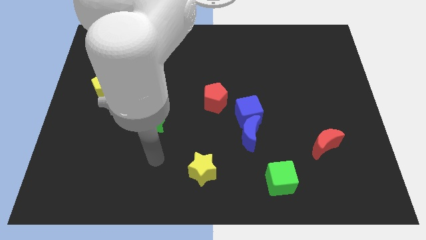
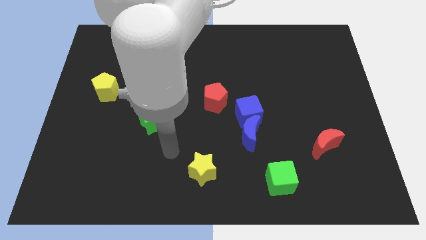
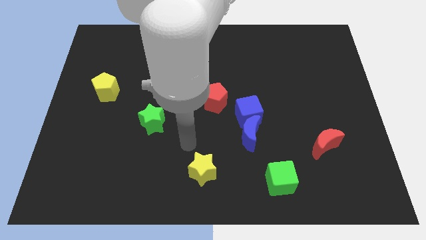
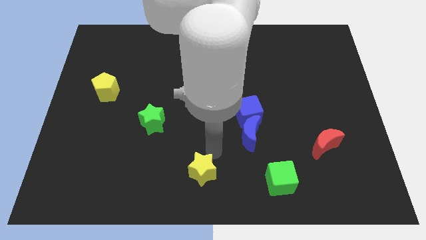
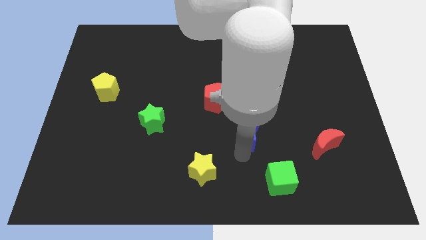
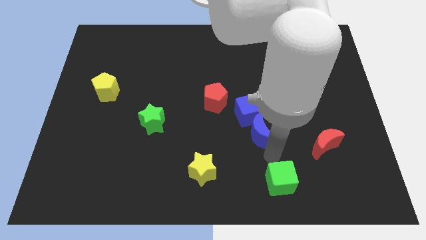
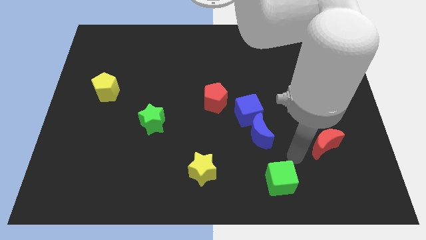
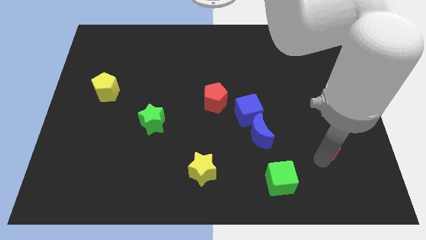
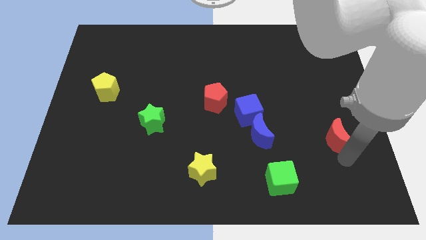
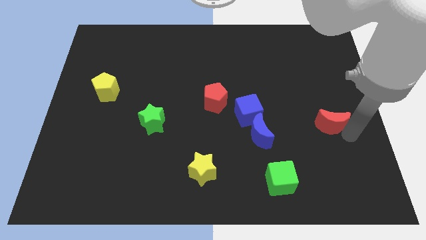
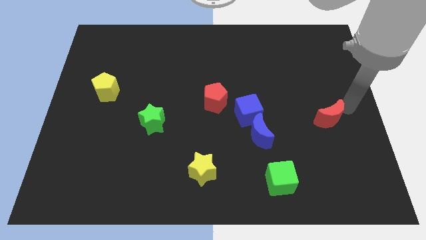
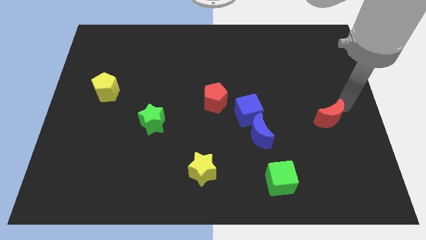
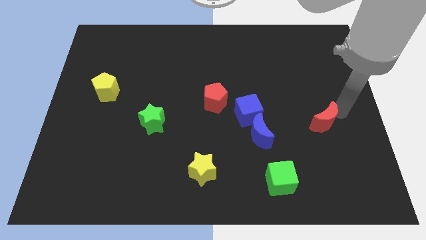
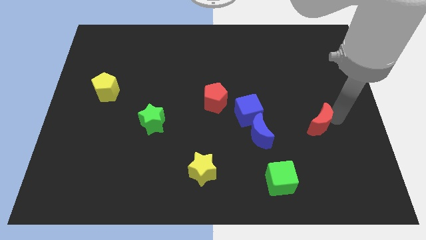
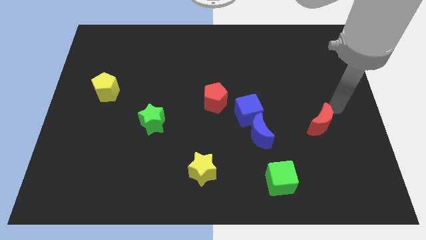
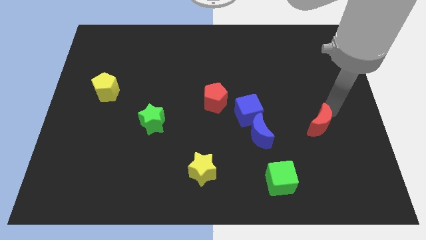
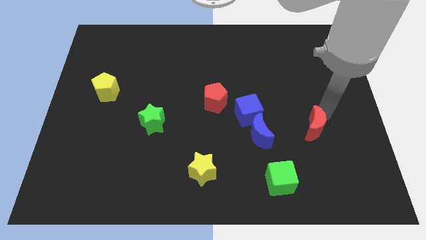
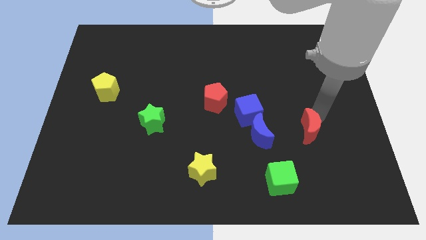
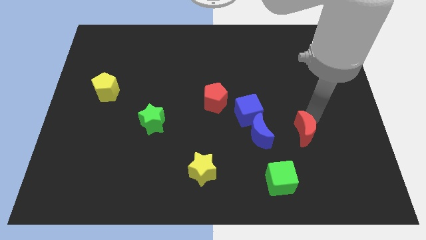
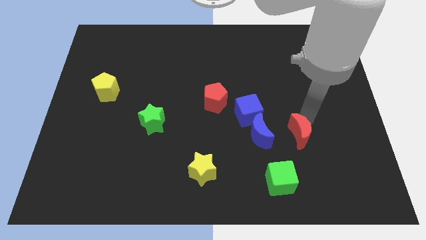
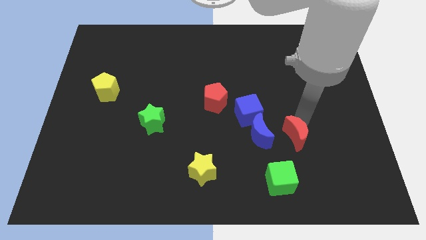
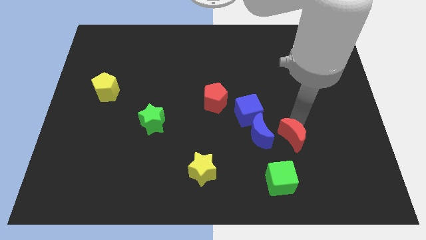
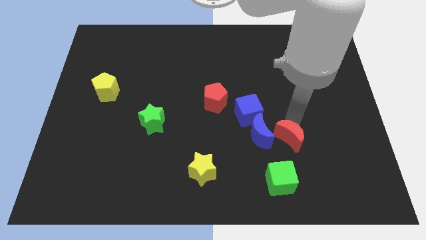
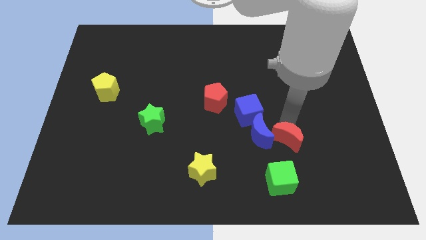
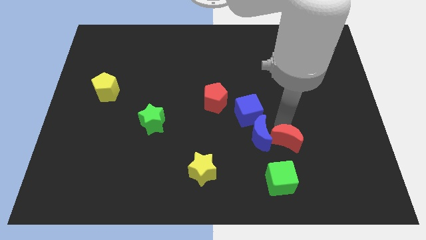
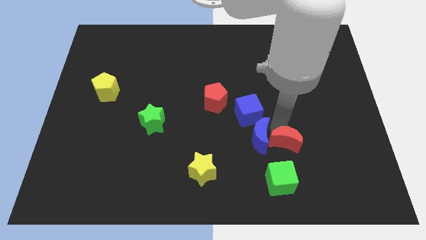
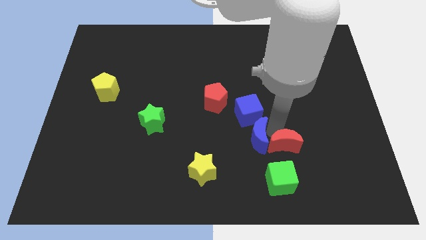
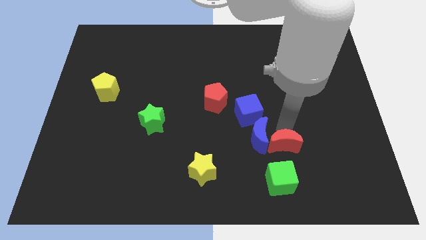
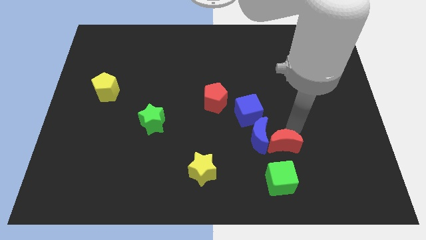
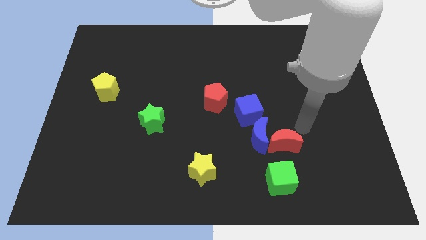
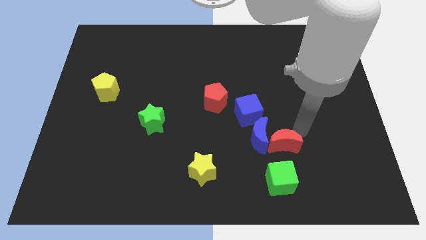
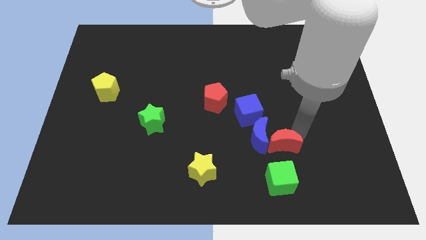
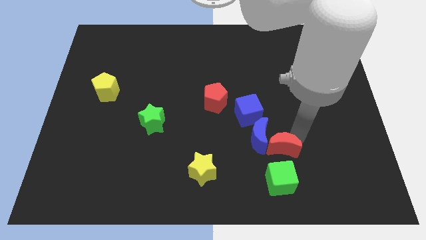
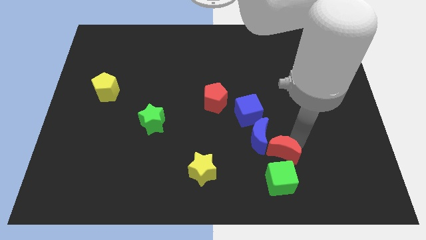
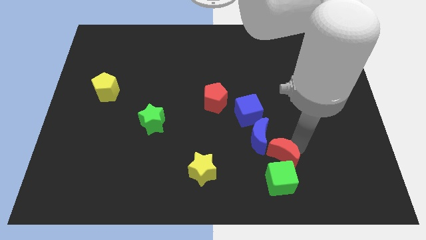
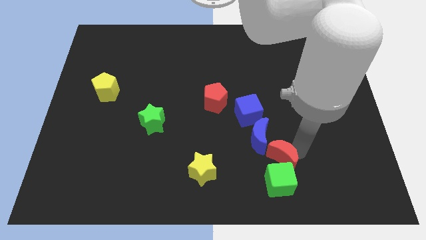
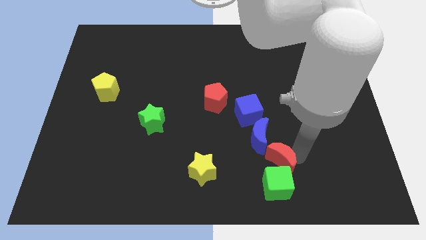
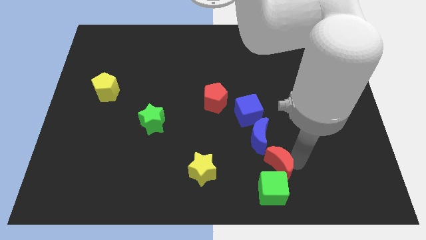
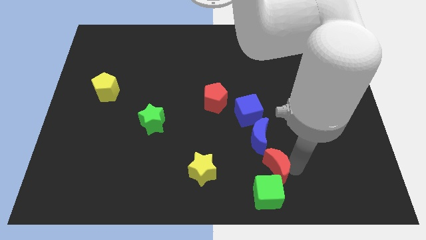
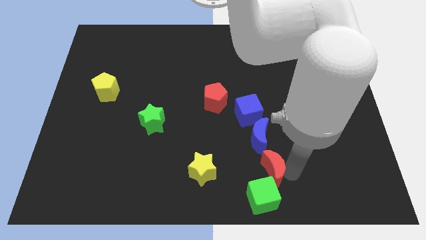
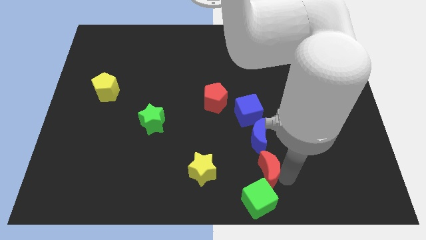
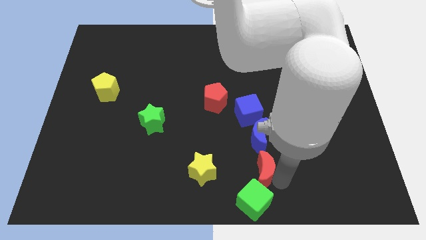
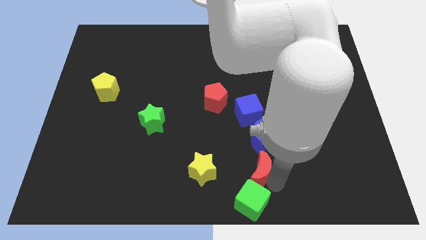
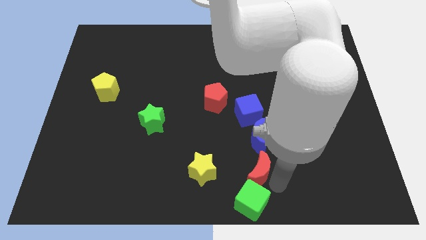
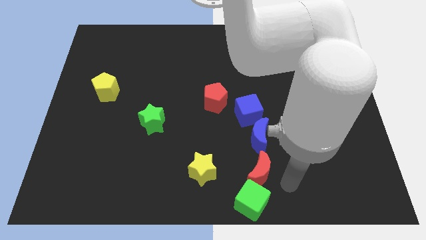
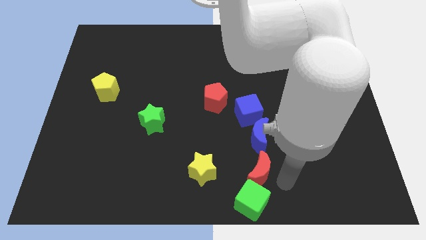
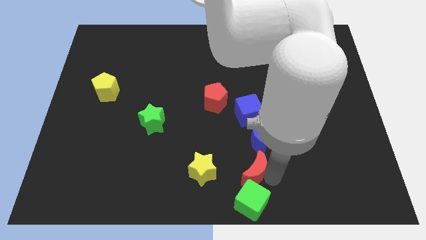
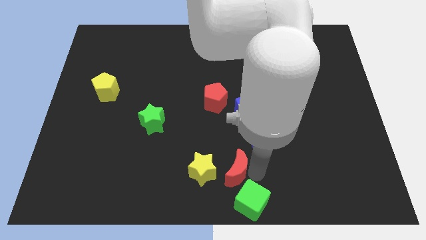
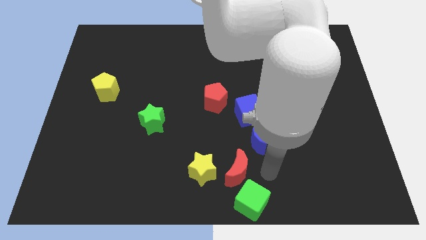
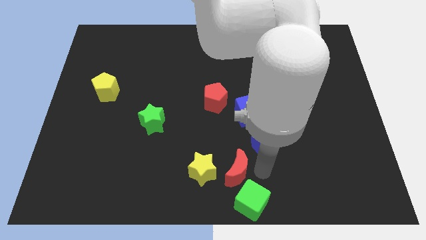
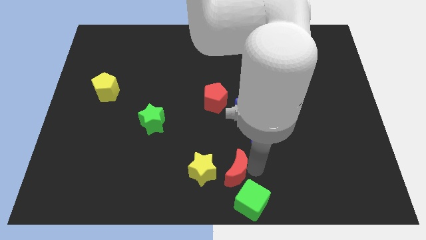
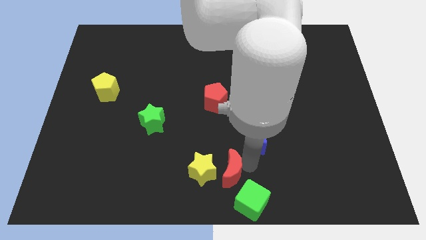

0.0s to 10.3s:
push the red moon to the yellow star

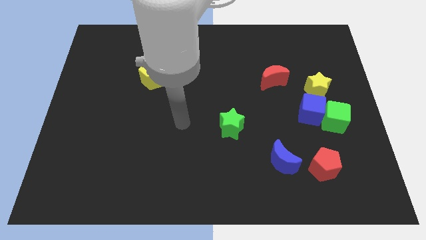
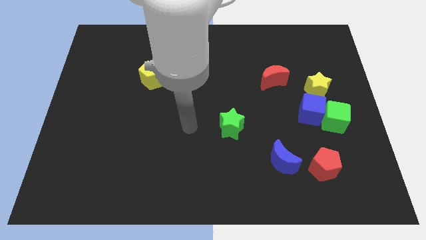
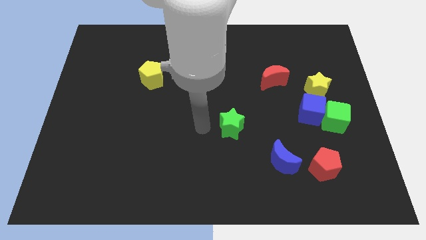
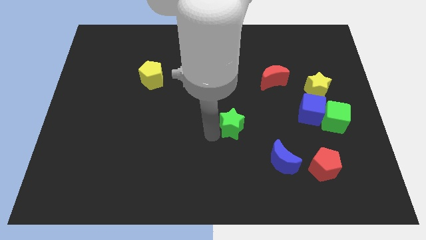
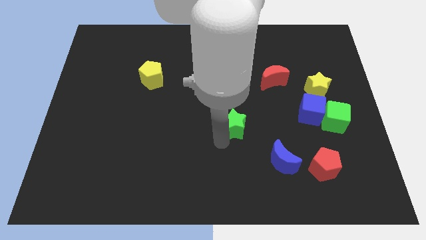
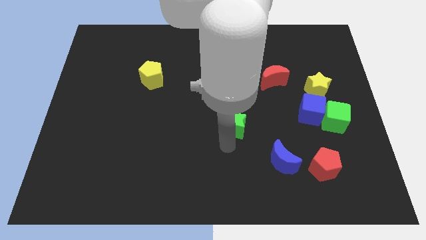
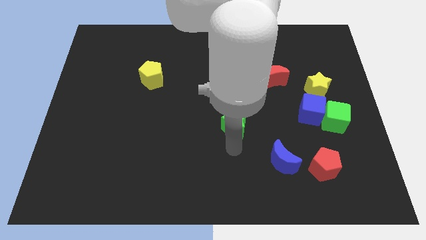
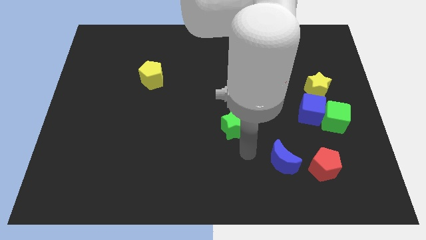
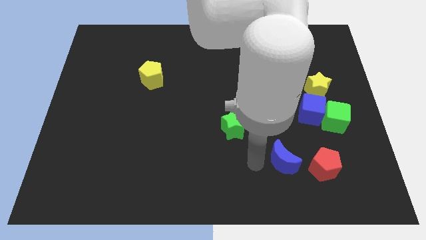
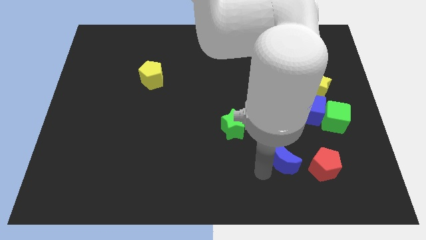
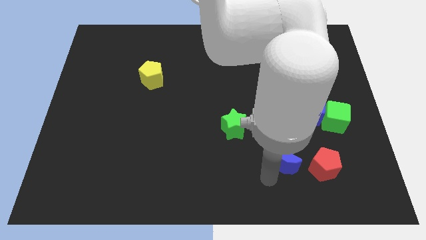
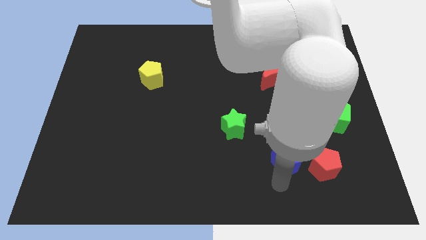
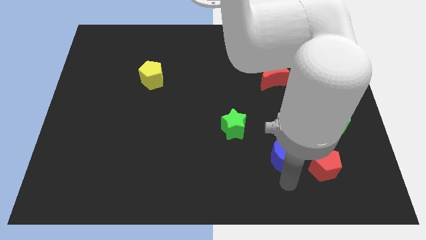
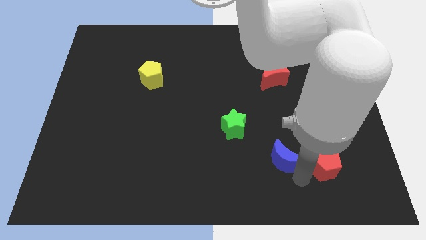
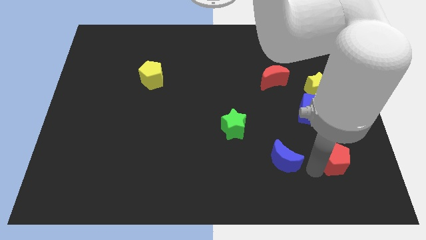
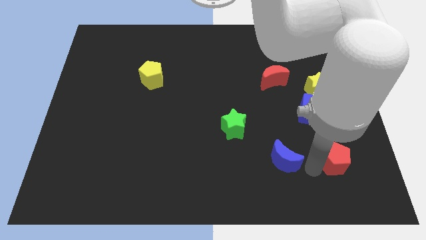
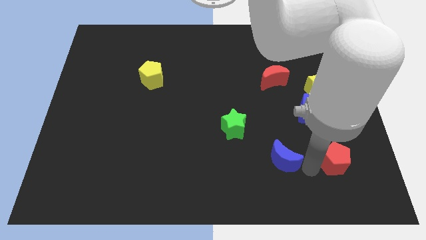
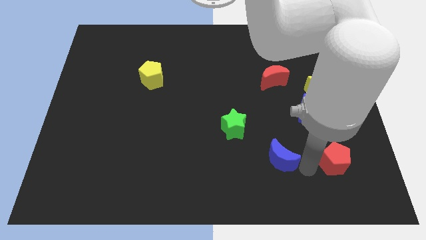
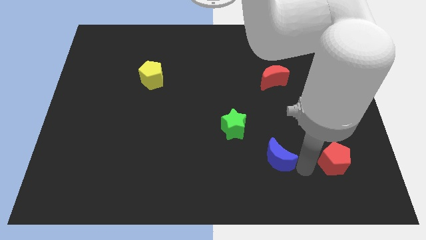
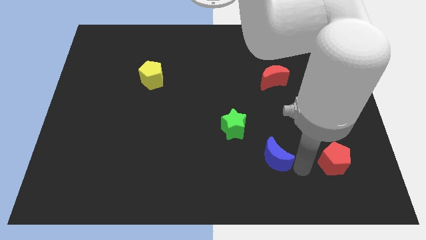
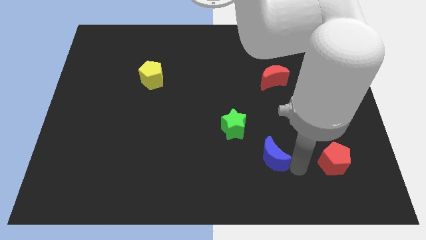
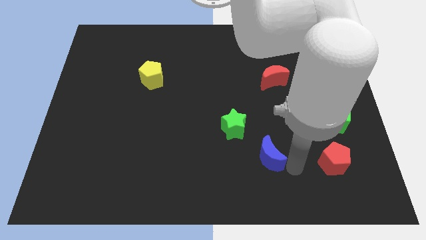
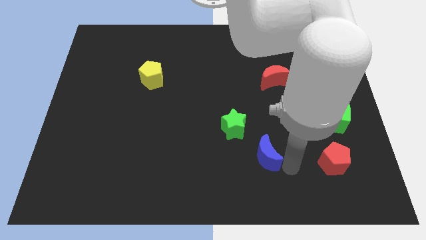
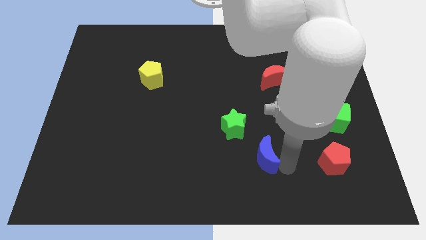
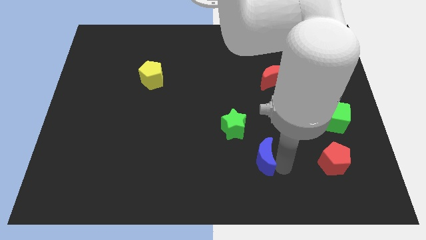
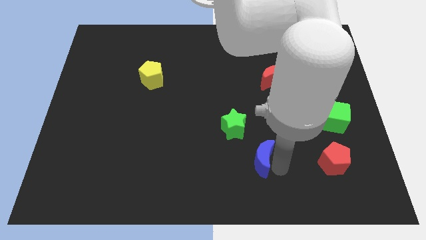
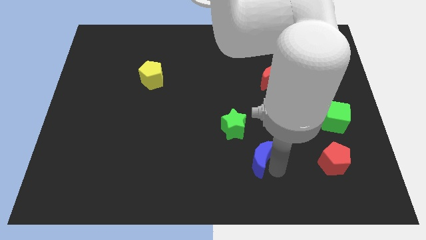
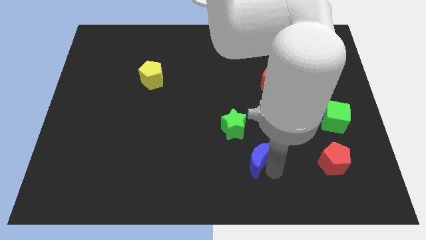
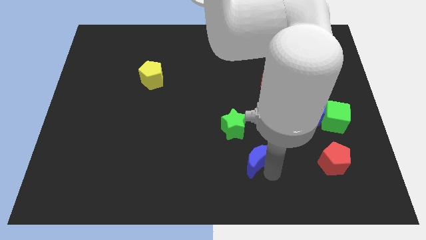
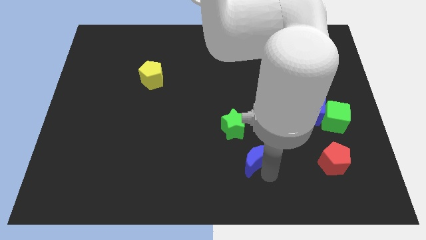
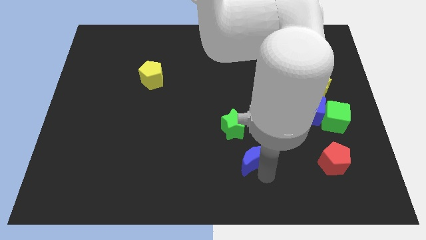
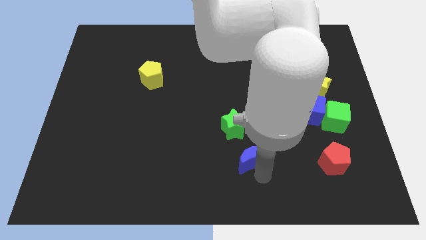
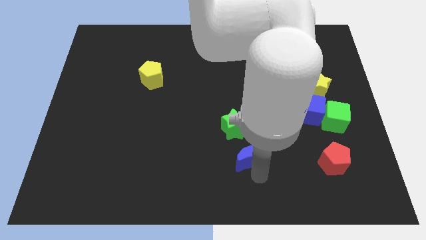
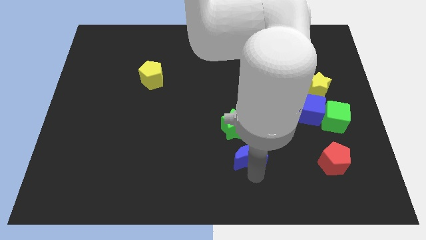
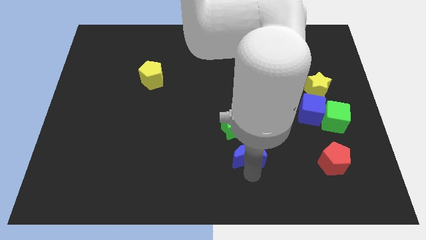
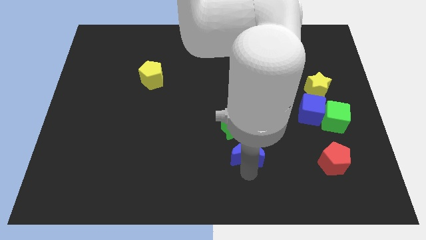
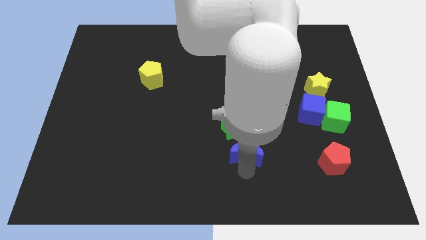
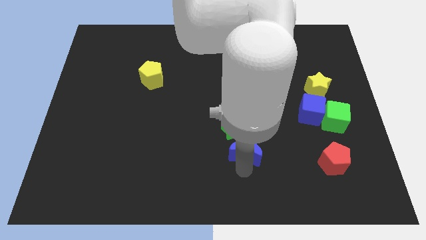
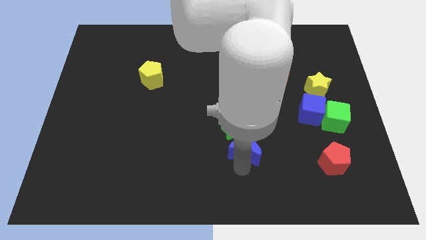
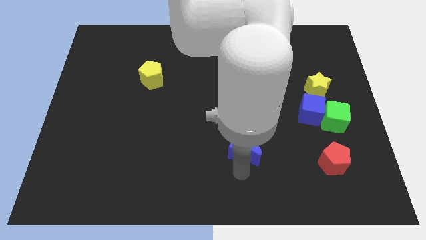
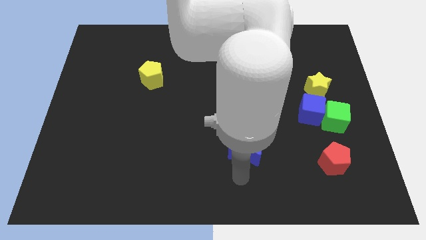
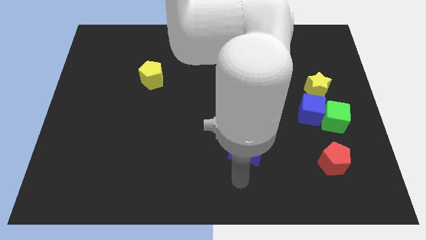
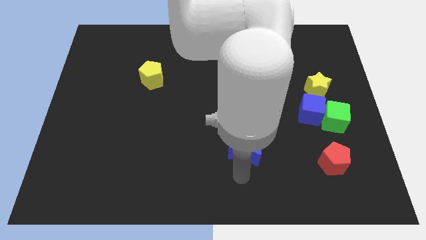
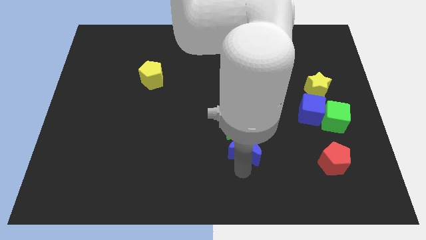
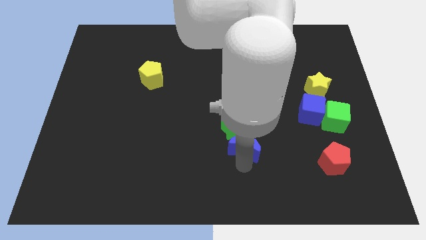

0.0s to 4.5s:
push the blue moon towards the green star
